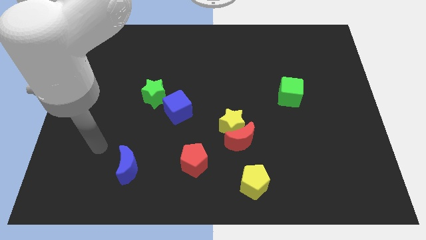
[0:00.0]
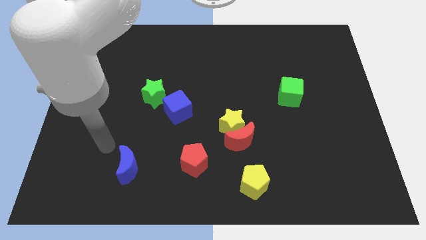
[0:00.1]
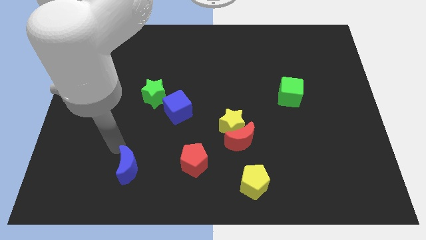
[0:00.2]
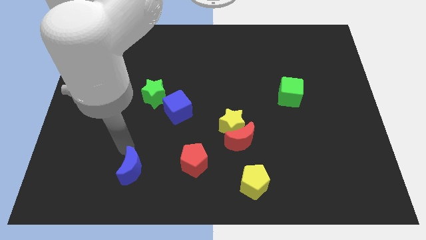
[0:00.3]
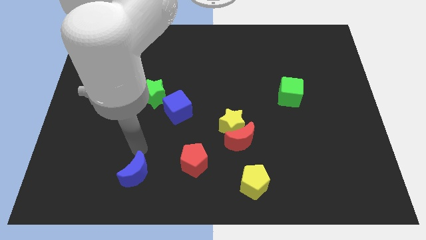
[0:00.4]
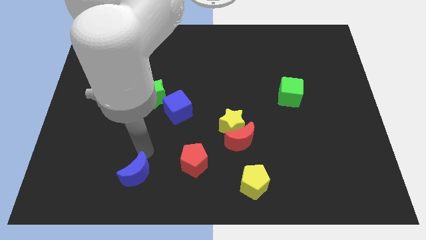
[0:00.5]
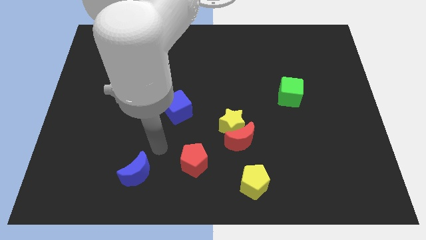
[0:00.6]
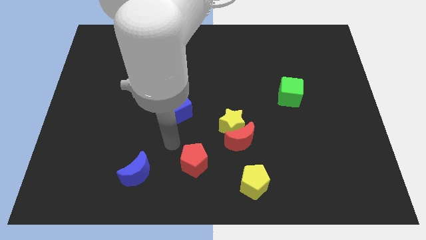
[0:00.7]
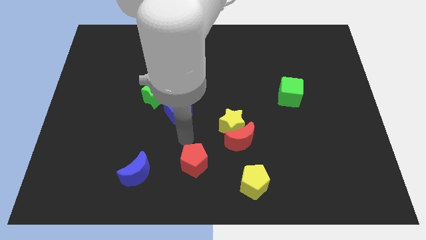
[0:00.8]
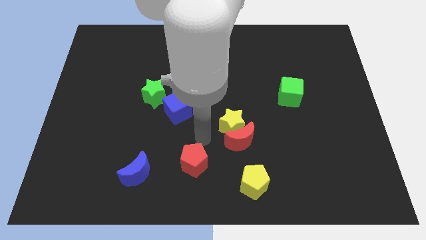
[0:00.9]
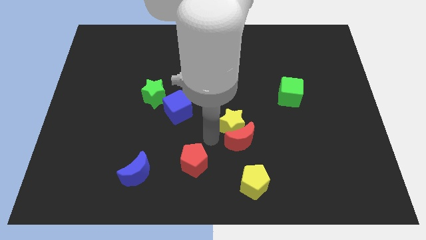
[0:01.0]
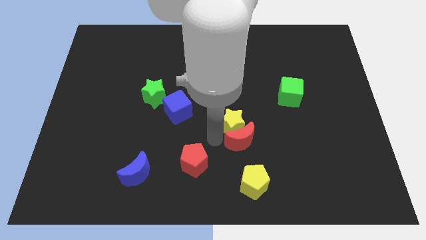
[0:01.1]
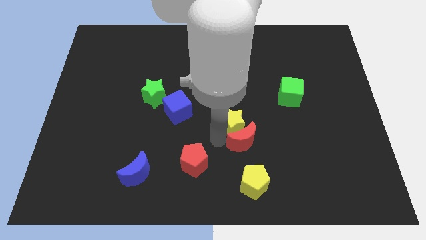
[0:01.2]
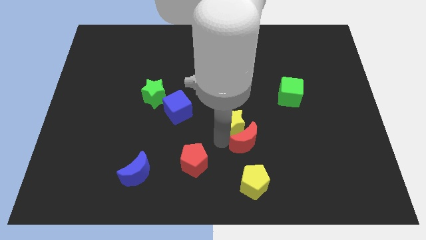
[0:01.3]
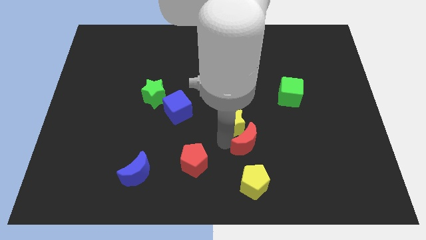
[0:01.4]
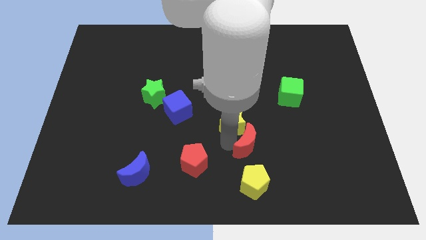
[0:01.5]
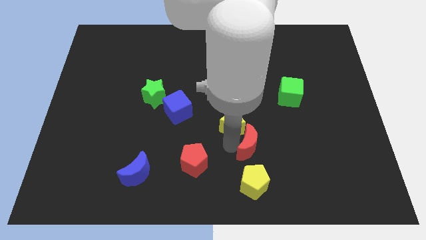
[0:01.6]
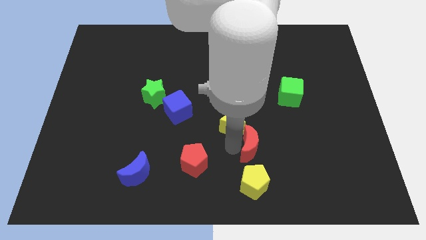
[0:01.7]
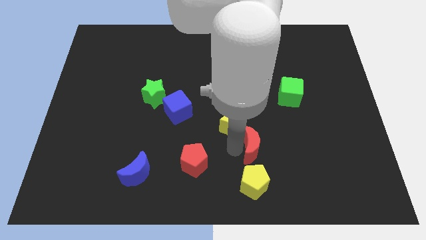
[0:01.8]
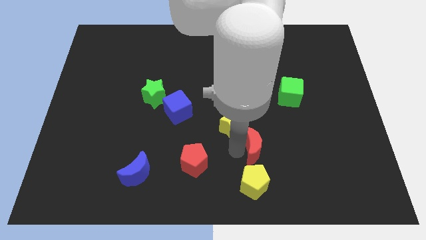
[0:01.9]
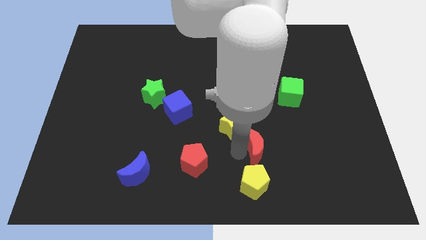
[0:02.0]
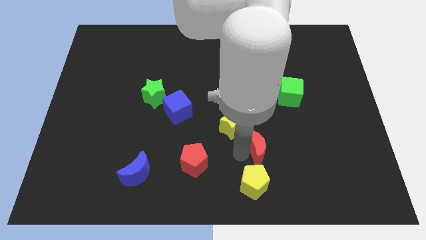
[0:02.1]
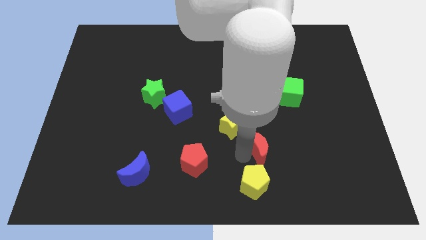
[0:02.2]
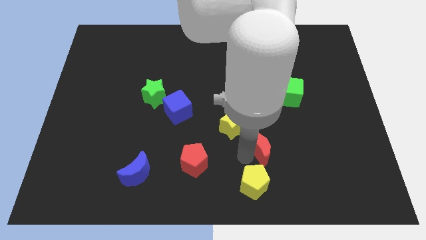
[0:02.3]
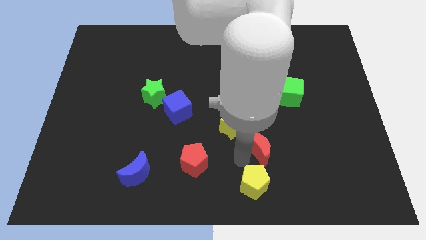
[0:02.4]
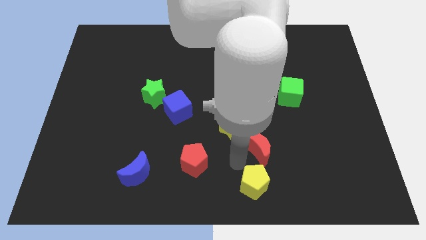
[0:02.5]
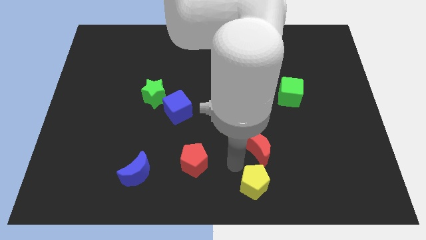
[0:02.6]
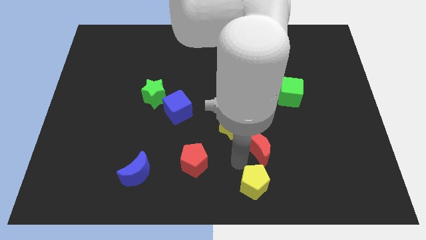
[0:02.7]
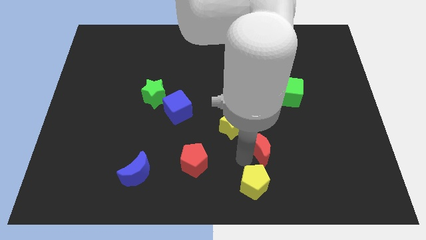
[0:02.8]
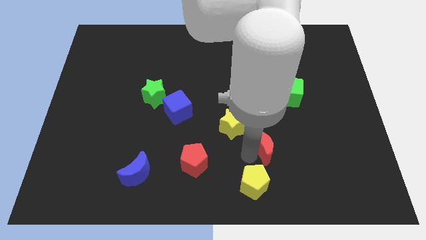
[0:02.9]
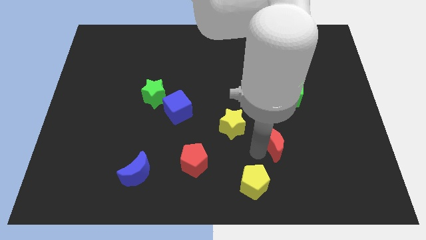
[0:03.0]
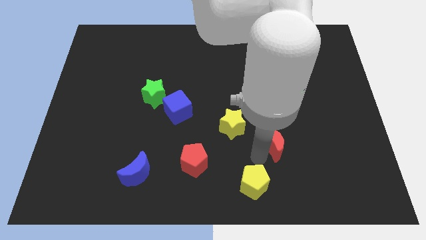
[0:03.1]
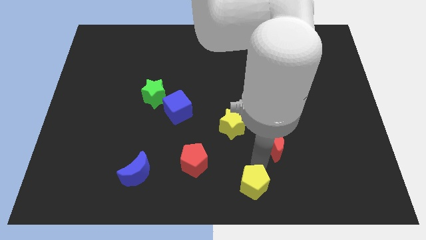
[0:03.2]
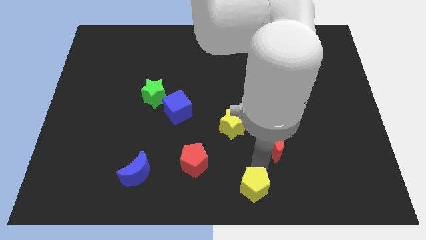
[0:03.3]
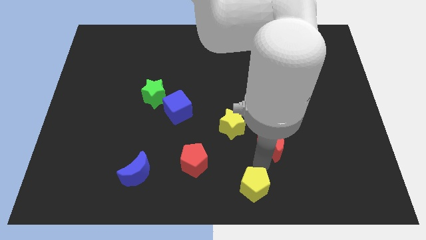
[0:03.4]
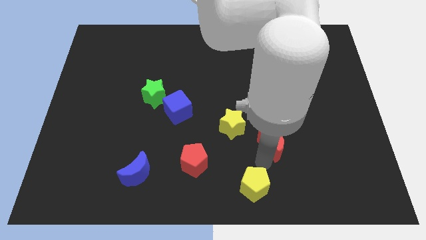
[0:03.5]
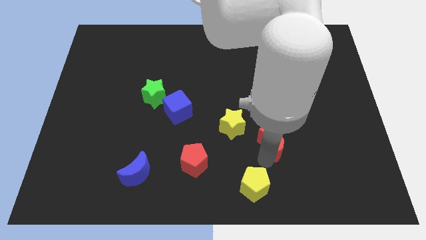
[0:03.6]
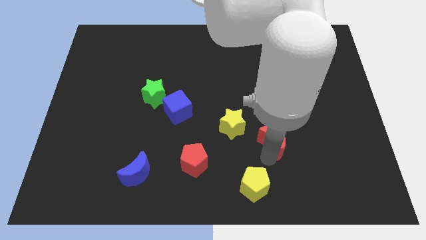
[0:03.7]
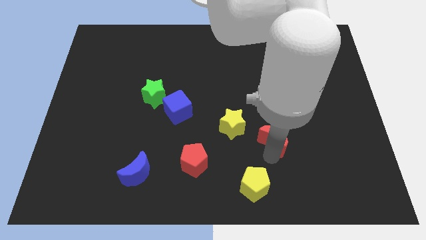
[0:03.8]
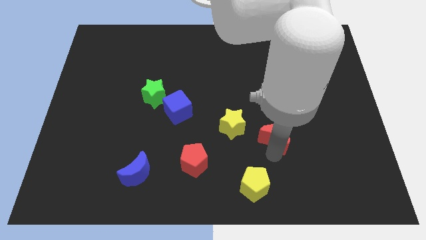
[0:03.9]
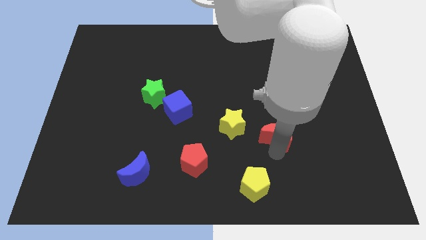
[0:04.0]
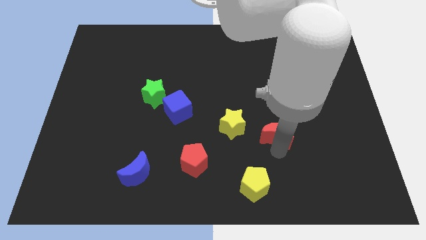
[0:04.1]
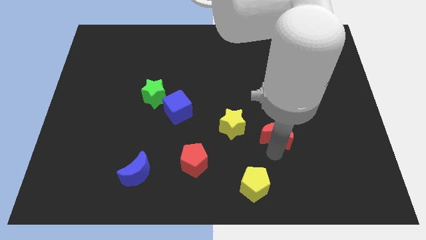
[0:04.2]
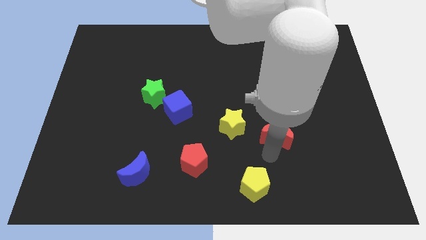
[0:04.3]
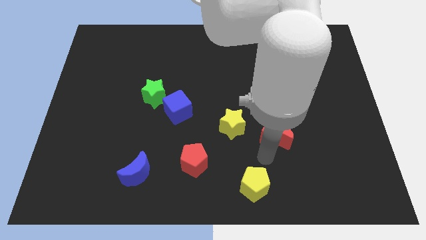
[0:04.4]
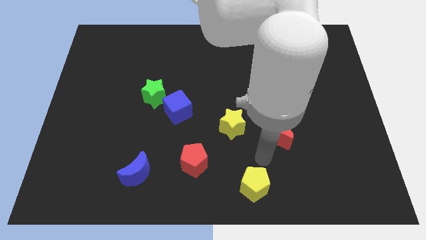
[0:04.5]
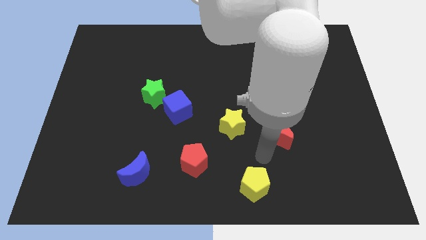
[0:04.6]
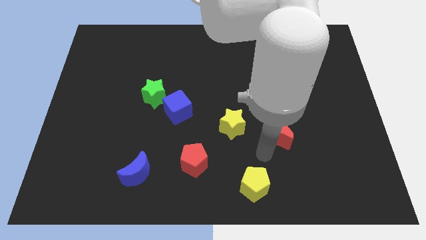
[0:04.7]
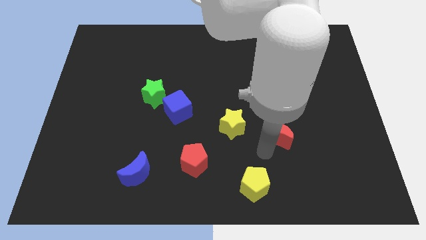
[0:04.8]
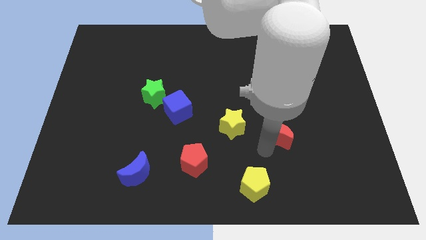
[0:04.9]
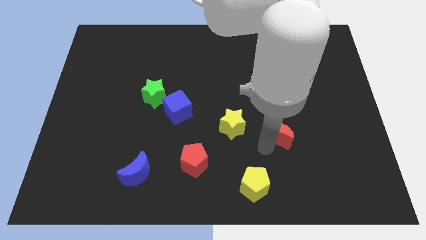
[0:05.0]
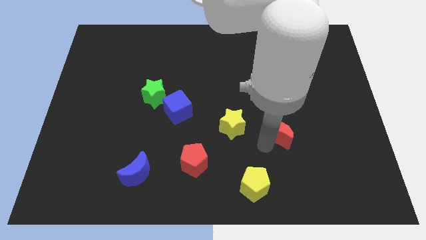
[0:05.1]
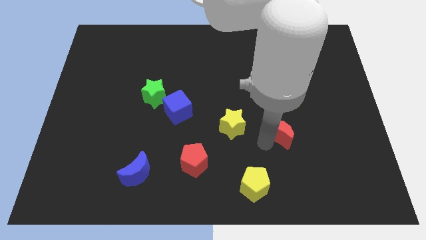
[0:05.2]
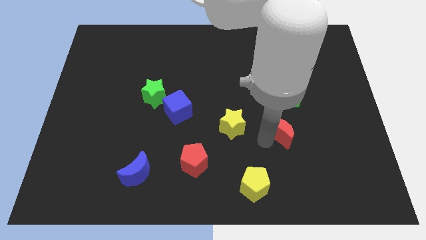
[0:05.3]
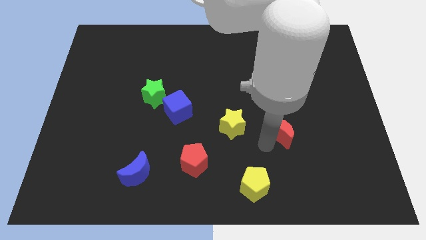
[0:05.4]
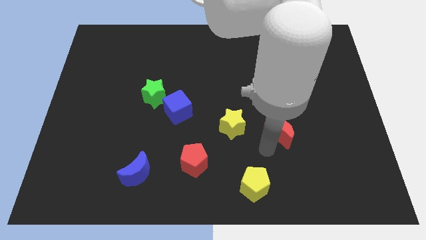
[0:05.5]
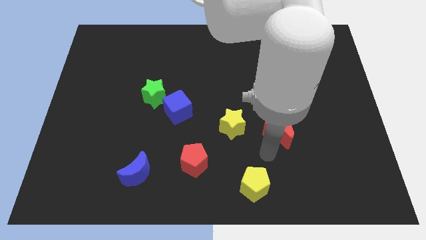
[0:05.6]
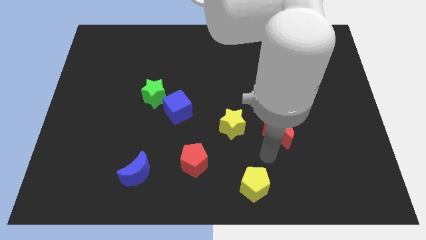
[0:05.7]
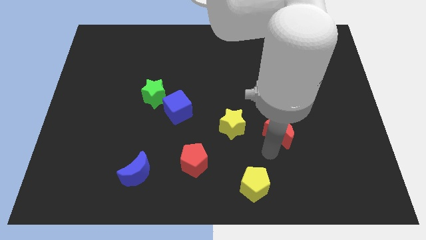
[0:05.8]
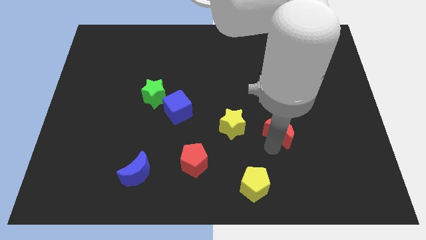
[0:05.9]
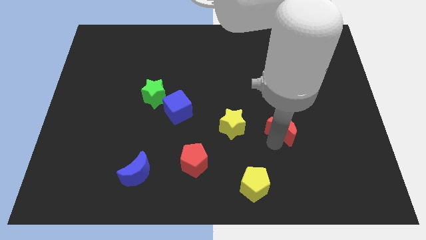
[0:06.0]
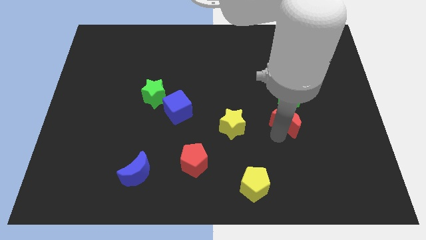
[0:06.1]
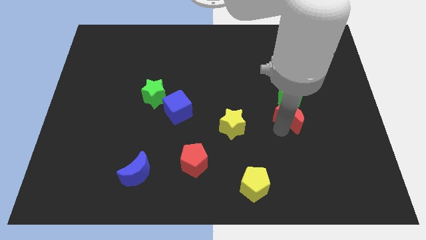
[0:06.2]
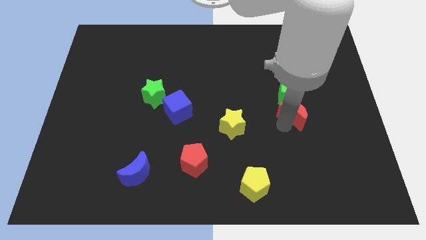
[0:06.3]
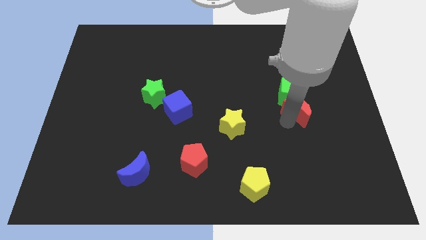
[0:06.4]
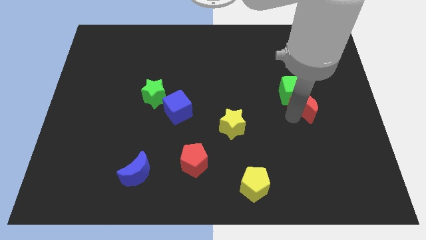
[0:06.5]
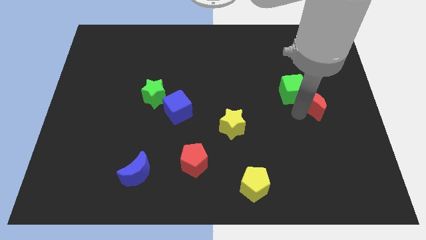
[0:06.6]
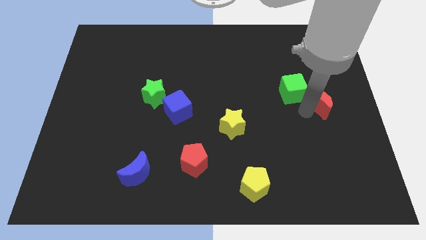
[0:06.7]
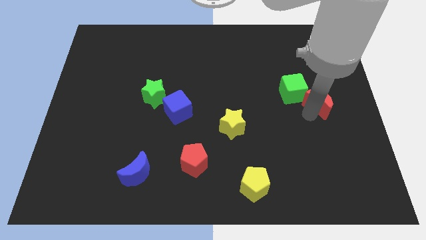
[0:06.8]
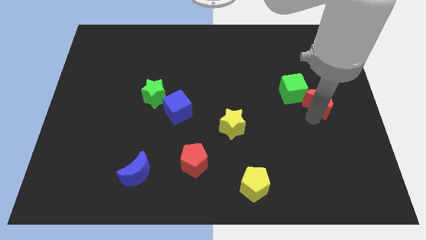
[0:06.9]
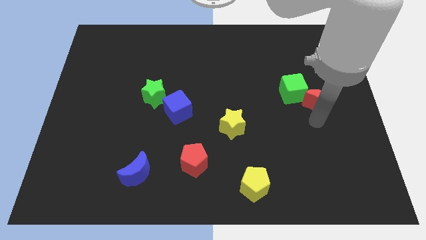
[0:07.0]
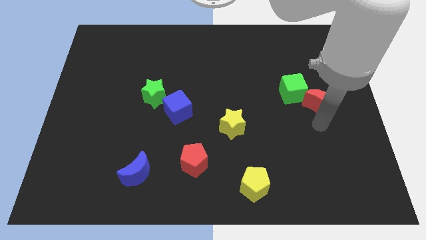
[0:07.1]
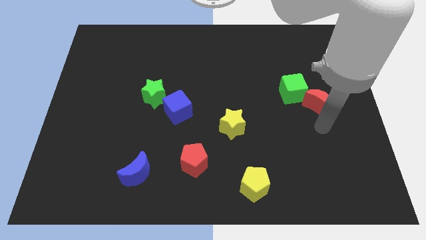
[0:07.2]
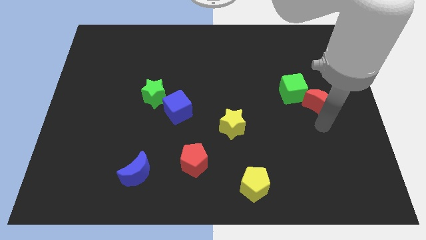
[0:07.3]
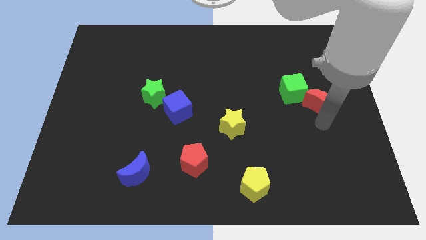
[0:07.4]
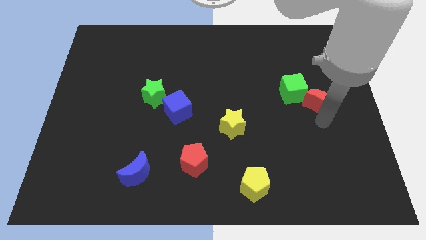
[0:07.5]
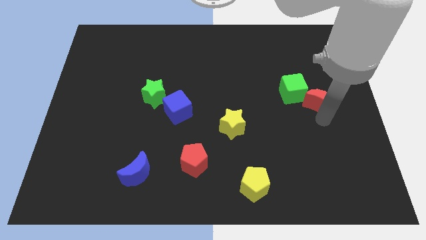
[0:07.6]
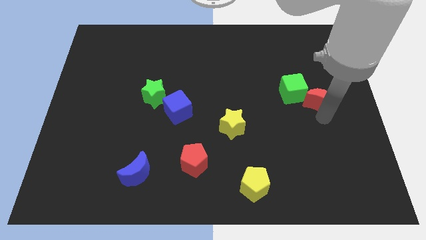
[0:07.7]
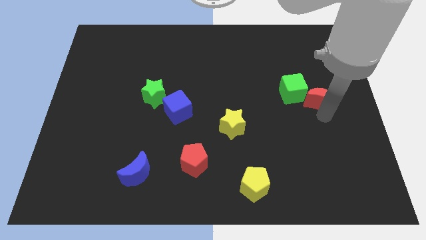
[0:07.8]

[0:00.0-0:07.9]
move the red moon up and to the right diagonally
